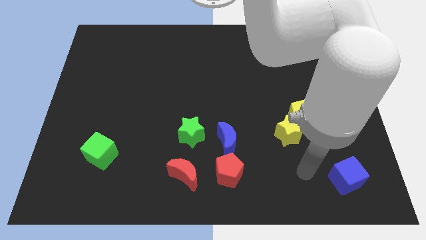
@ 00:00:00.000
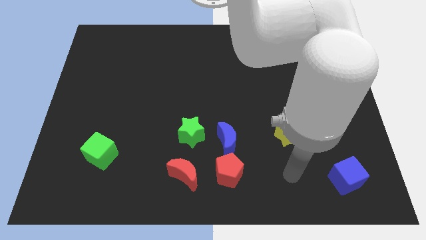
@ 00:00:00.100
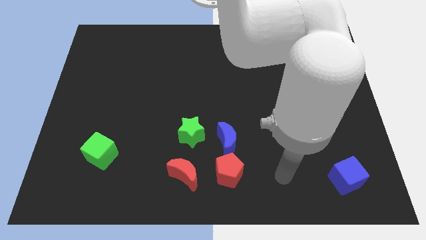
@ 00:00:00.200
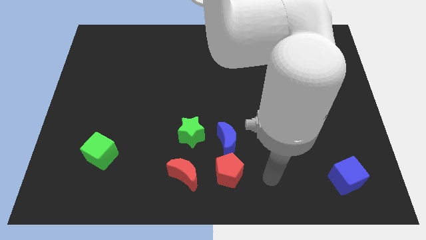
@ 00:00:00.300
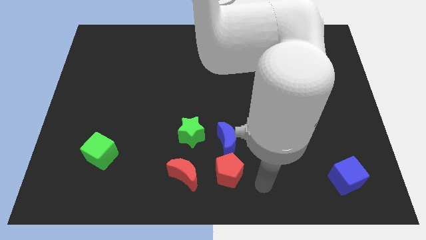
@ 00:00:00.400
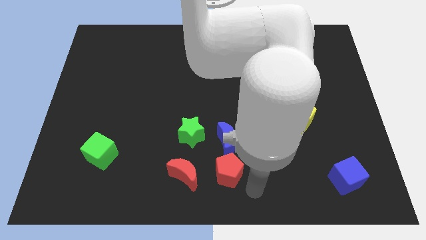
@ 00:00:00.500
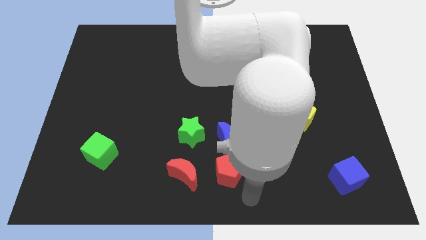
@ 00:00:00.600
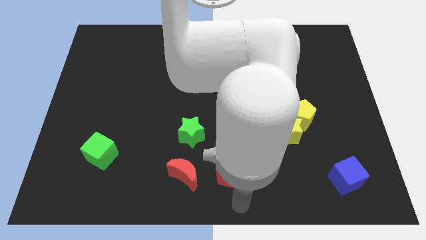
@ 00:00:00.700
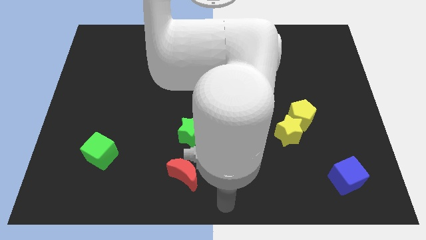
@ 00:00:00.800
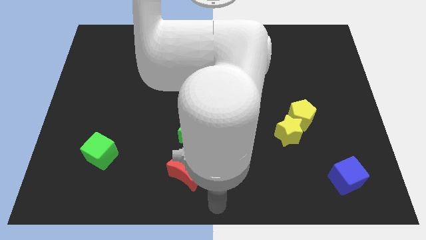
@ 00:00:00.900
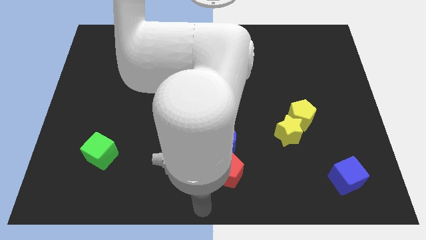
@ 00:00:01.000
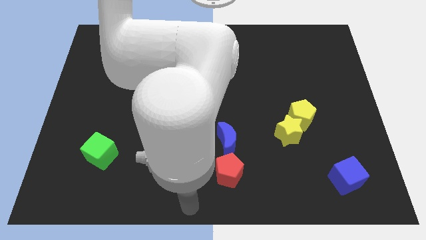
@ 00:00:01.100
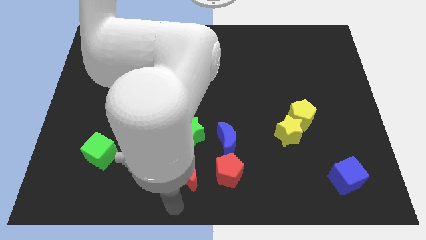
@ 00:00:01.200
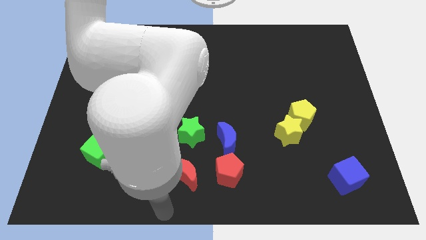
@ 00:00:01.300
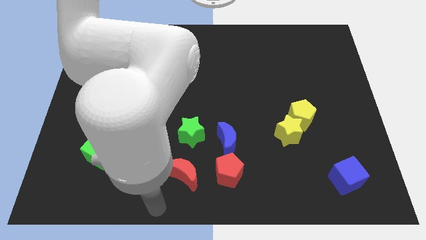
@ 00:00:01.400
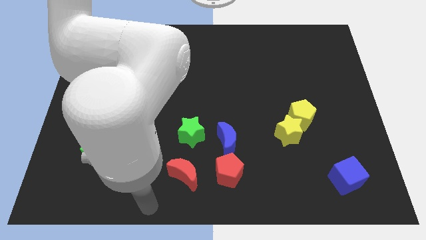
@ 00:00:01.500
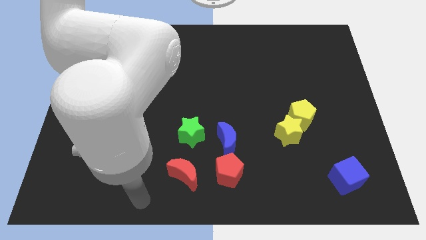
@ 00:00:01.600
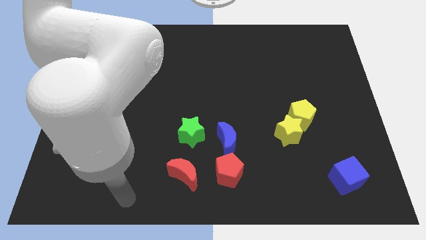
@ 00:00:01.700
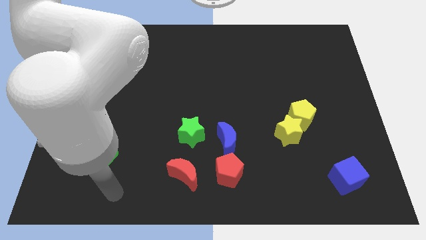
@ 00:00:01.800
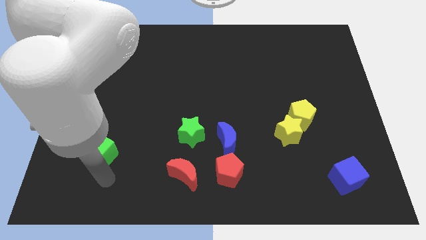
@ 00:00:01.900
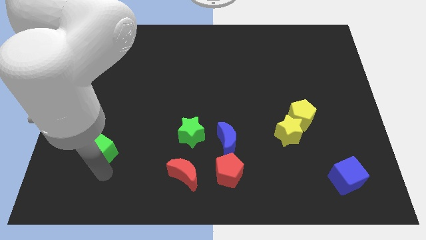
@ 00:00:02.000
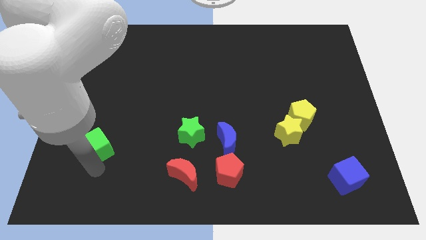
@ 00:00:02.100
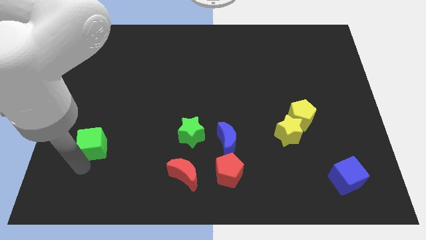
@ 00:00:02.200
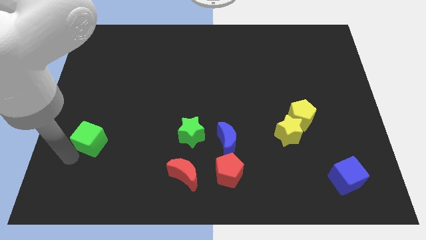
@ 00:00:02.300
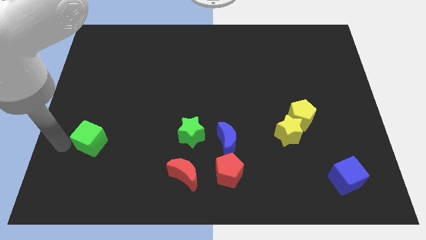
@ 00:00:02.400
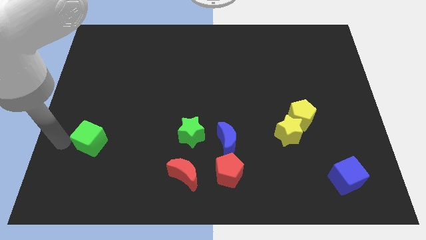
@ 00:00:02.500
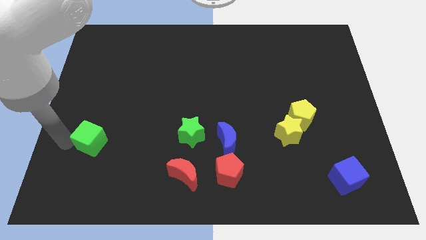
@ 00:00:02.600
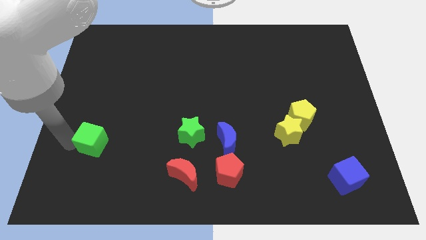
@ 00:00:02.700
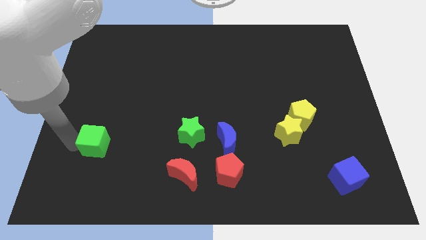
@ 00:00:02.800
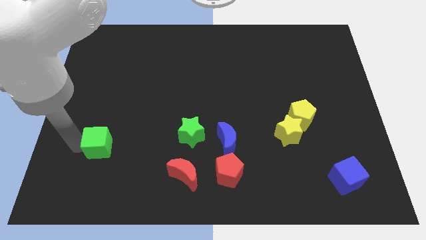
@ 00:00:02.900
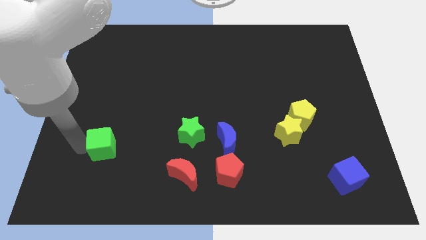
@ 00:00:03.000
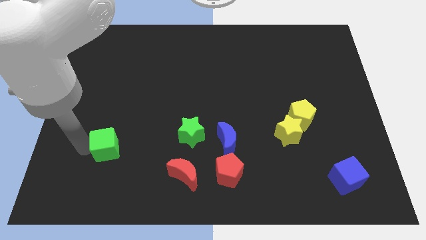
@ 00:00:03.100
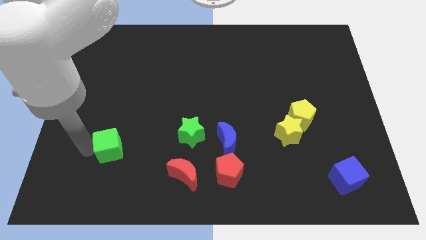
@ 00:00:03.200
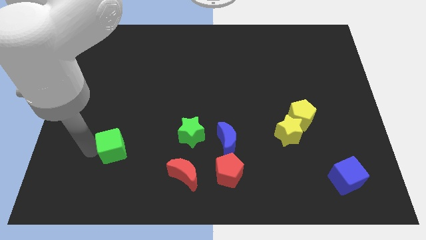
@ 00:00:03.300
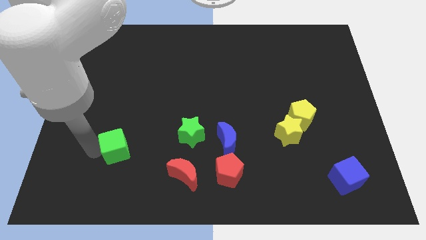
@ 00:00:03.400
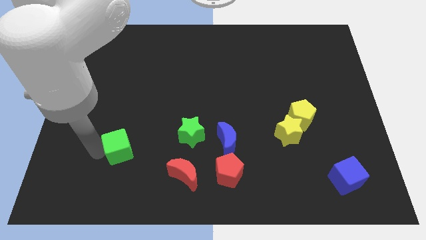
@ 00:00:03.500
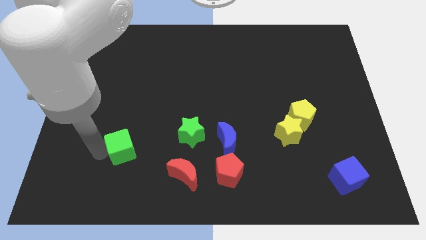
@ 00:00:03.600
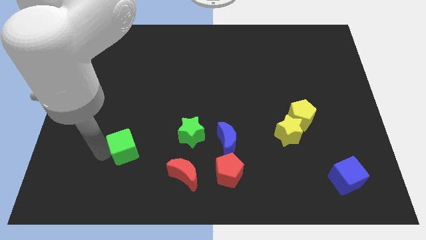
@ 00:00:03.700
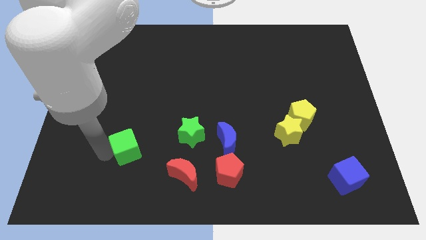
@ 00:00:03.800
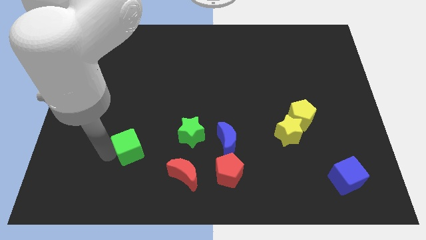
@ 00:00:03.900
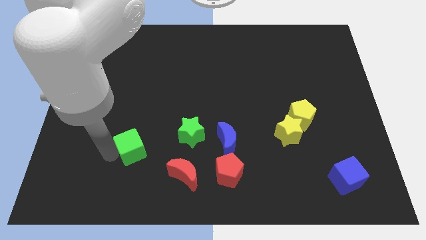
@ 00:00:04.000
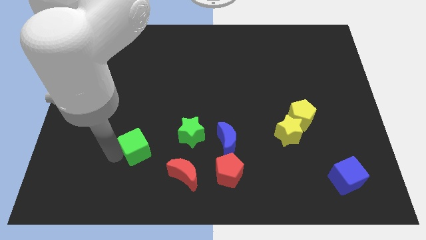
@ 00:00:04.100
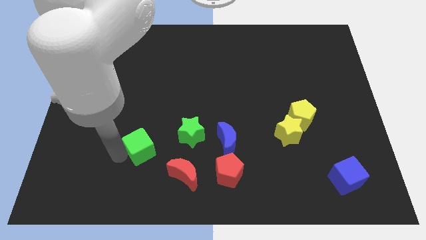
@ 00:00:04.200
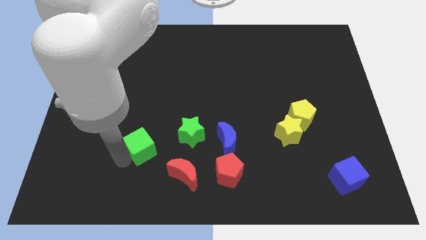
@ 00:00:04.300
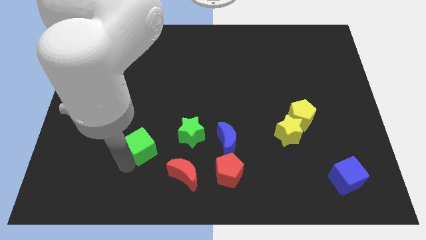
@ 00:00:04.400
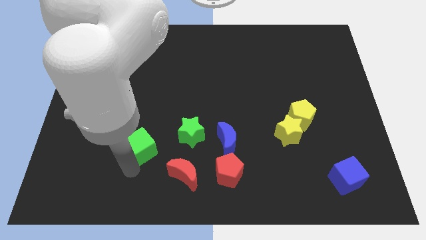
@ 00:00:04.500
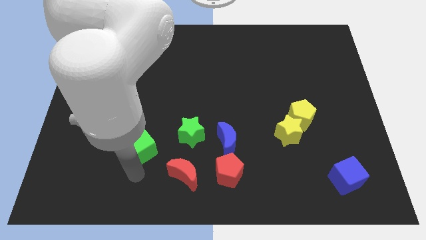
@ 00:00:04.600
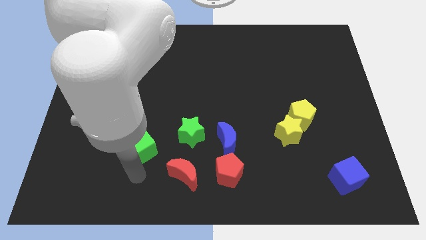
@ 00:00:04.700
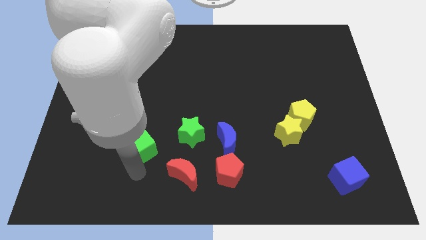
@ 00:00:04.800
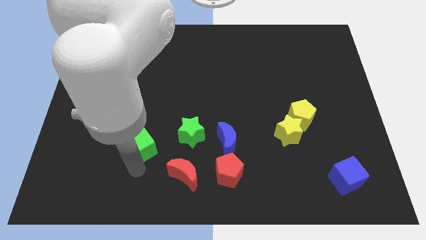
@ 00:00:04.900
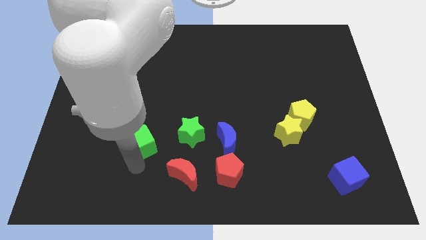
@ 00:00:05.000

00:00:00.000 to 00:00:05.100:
slightly push the green cube upwards and right

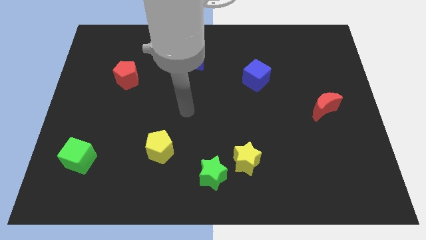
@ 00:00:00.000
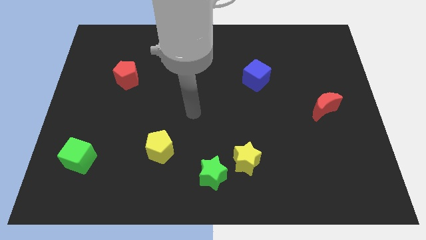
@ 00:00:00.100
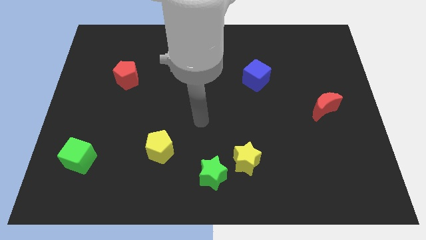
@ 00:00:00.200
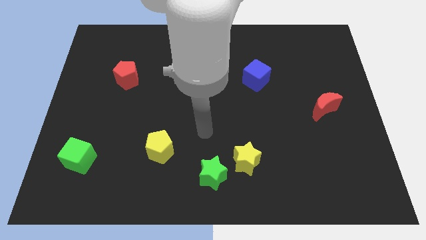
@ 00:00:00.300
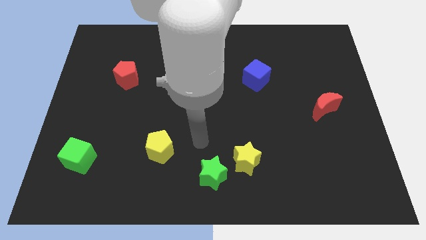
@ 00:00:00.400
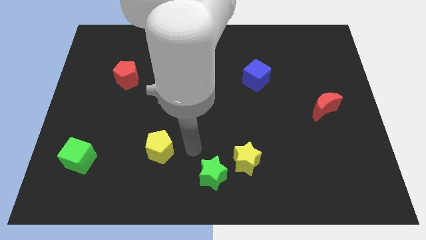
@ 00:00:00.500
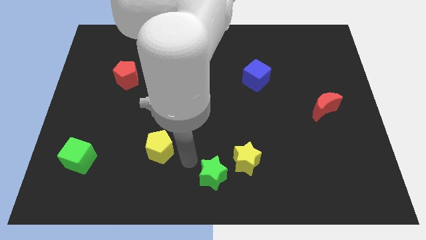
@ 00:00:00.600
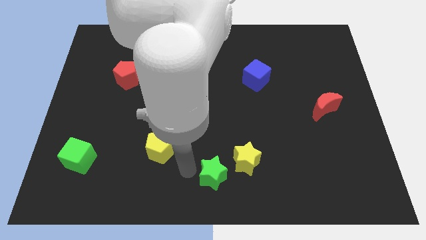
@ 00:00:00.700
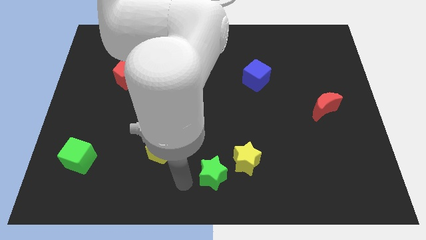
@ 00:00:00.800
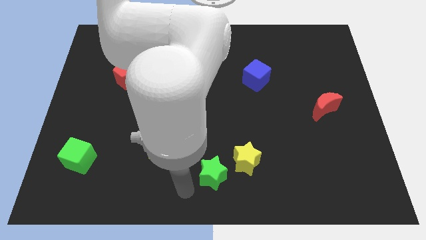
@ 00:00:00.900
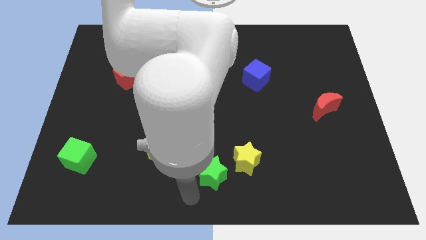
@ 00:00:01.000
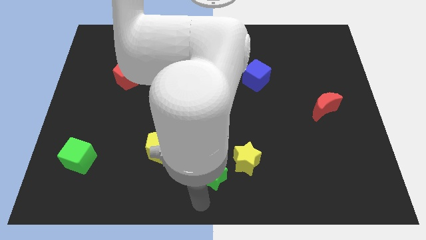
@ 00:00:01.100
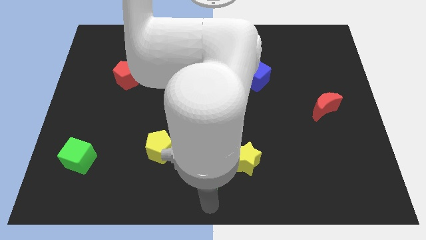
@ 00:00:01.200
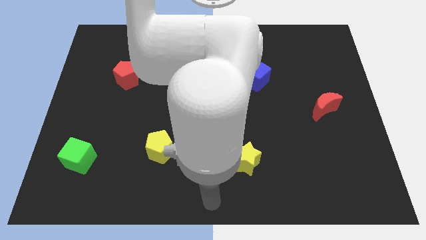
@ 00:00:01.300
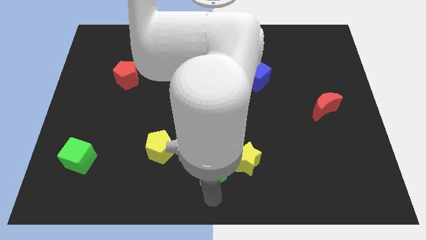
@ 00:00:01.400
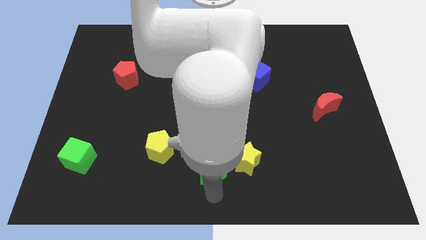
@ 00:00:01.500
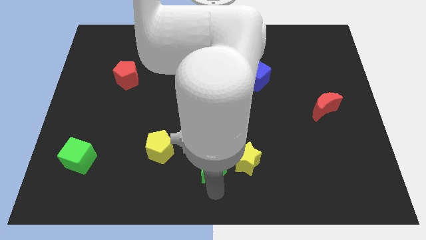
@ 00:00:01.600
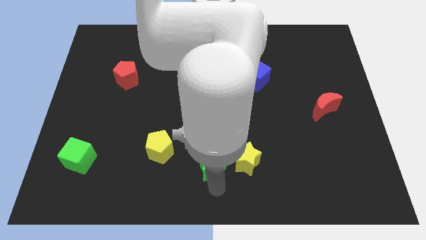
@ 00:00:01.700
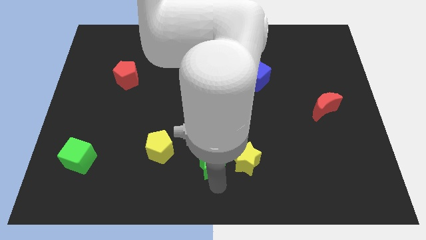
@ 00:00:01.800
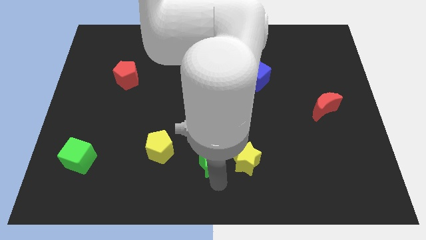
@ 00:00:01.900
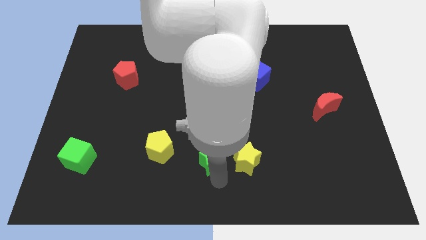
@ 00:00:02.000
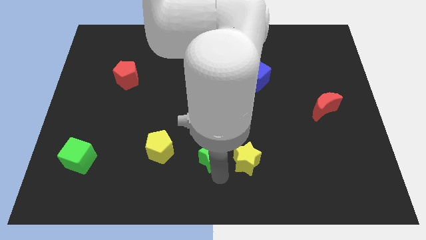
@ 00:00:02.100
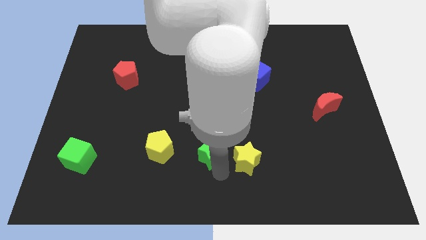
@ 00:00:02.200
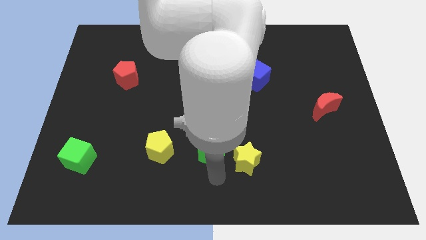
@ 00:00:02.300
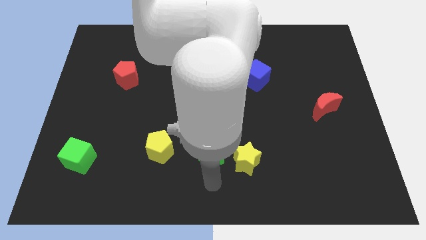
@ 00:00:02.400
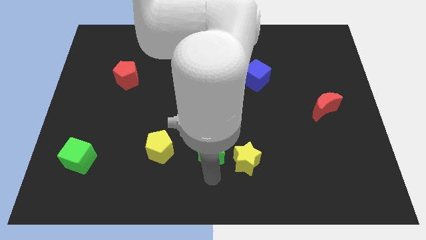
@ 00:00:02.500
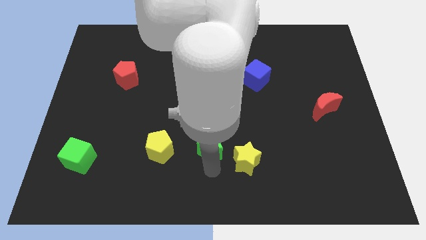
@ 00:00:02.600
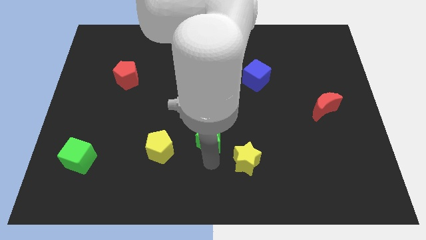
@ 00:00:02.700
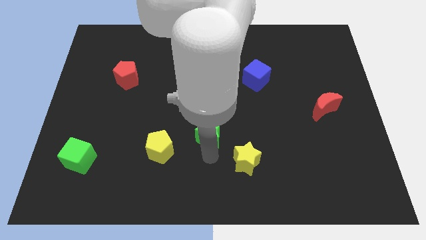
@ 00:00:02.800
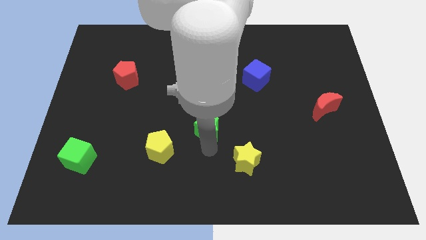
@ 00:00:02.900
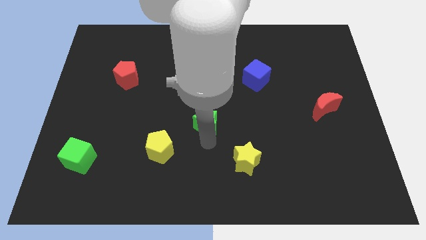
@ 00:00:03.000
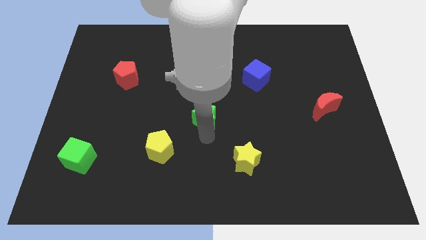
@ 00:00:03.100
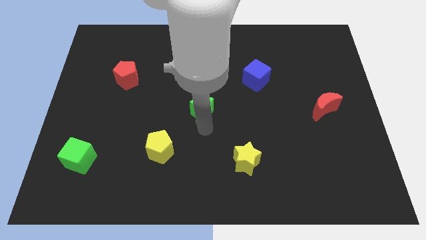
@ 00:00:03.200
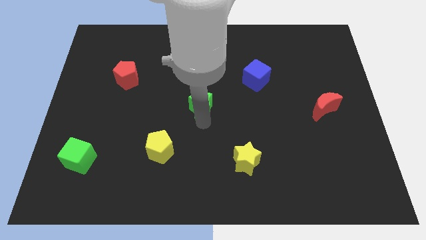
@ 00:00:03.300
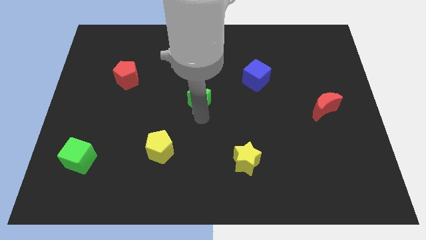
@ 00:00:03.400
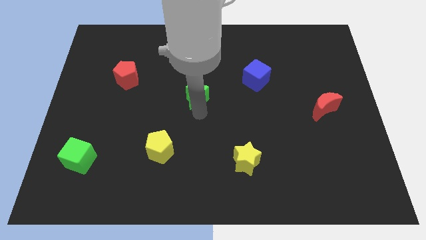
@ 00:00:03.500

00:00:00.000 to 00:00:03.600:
move the green star up
